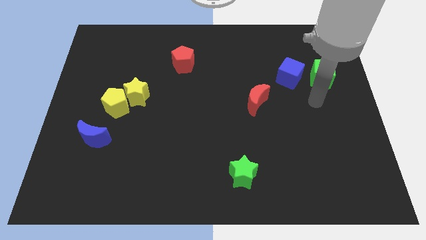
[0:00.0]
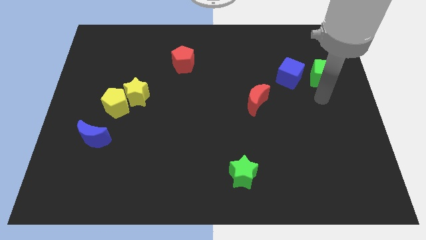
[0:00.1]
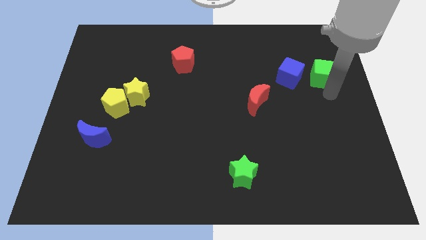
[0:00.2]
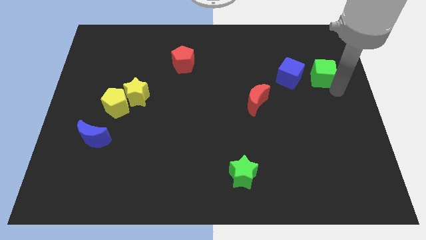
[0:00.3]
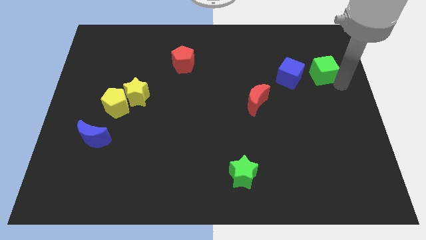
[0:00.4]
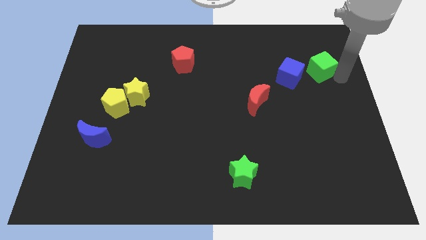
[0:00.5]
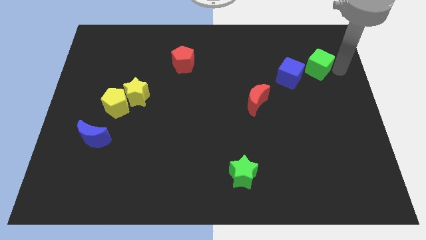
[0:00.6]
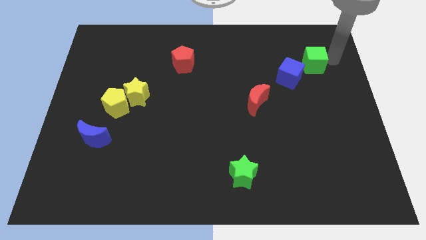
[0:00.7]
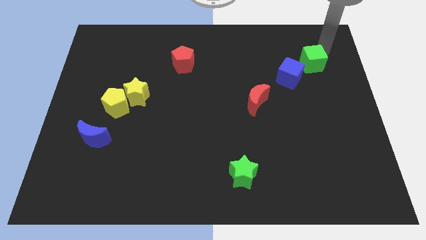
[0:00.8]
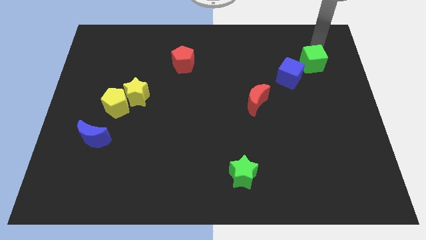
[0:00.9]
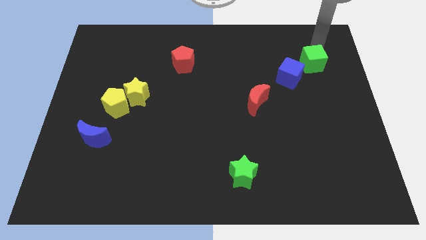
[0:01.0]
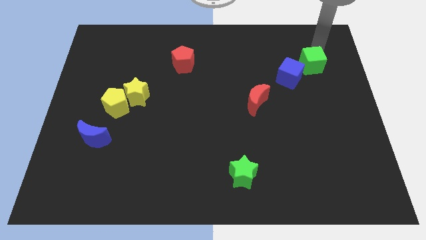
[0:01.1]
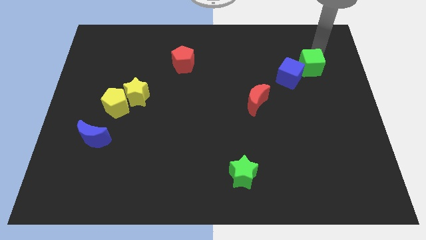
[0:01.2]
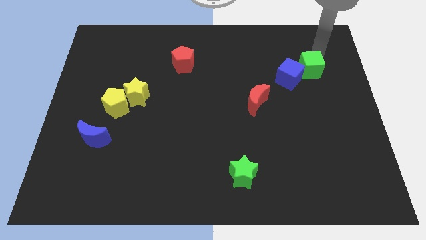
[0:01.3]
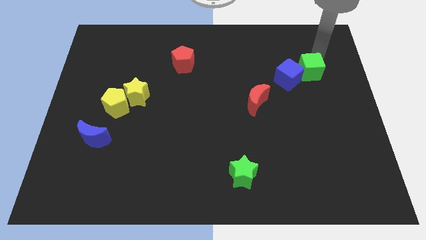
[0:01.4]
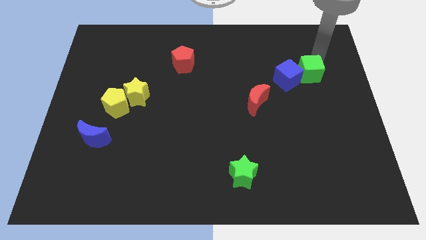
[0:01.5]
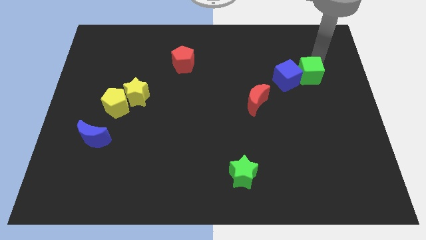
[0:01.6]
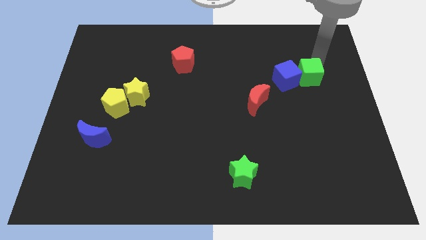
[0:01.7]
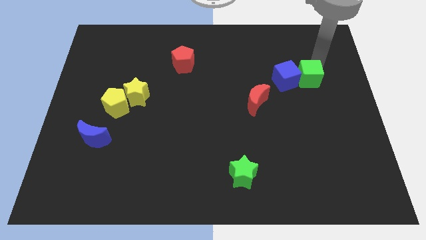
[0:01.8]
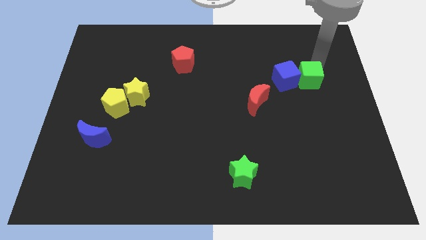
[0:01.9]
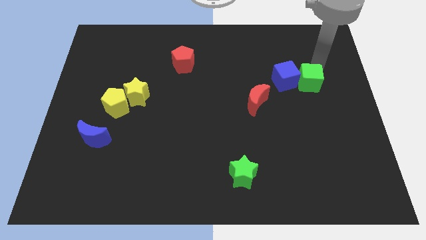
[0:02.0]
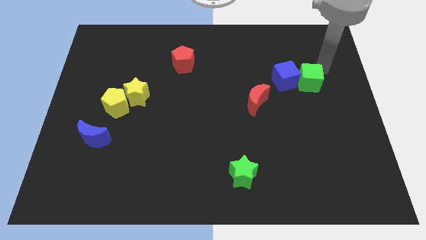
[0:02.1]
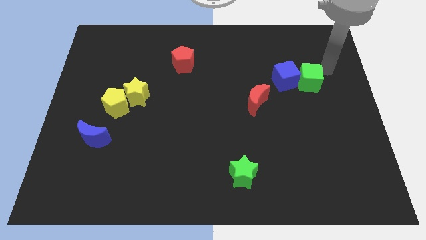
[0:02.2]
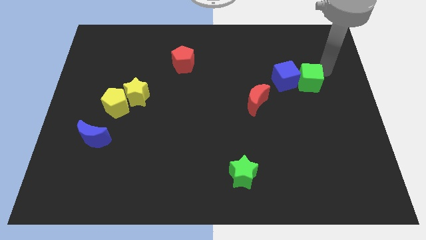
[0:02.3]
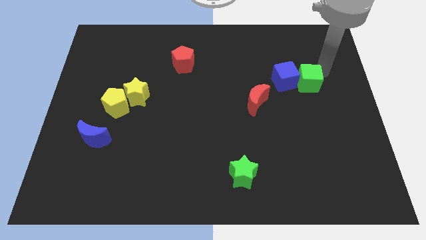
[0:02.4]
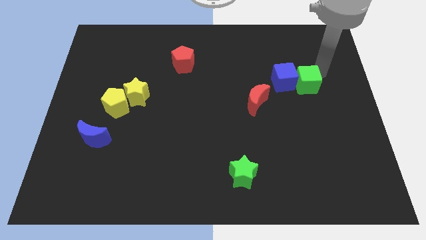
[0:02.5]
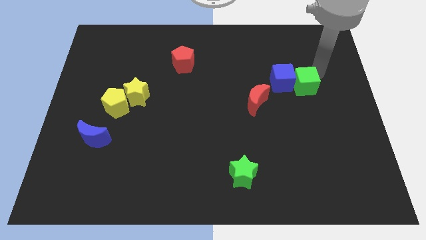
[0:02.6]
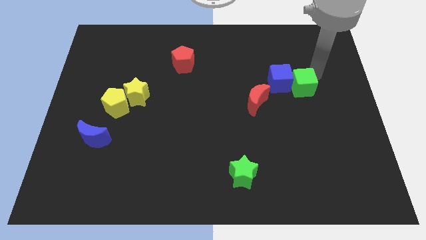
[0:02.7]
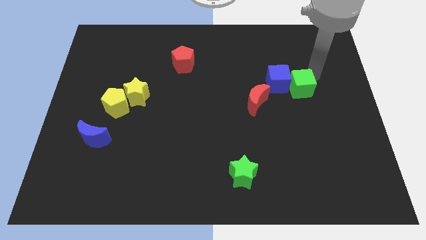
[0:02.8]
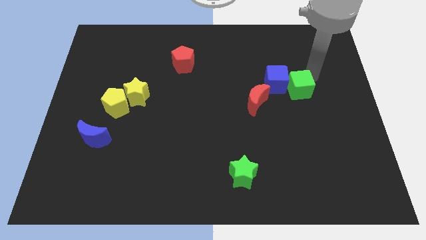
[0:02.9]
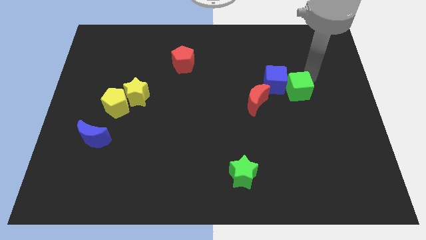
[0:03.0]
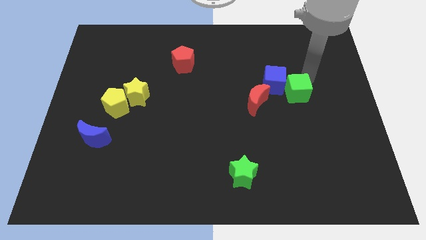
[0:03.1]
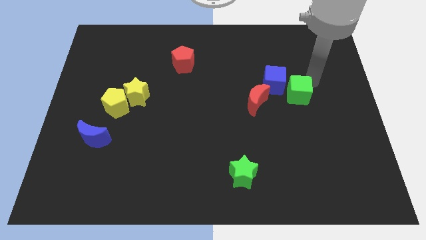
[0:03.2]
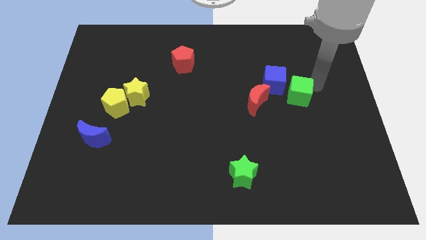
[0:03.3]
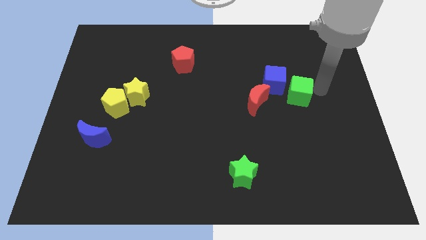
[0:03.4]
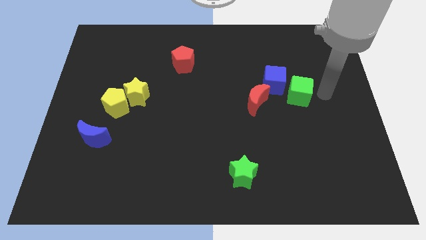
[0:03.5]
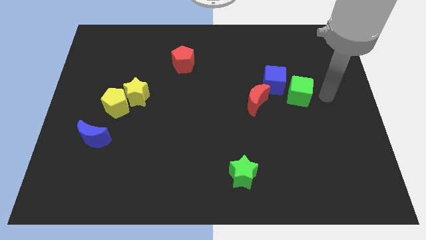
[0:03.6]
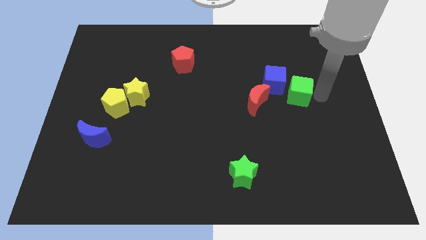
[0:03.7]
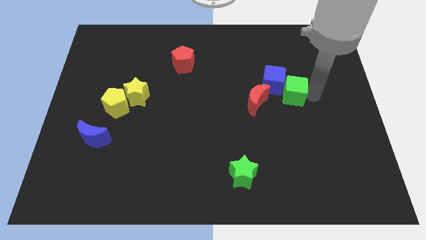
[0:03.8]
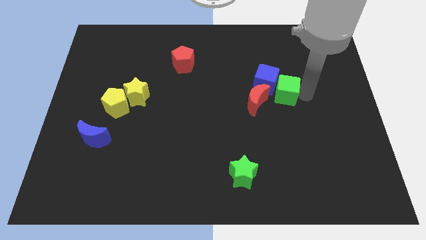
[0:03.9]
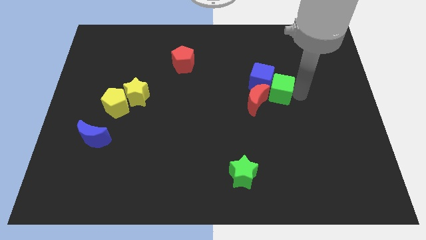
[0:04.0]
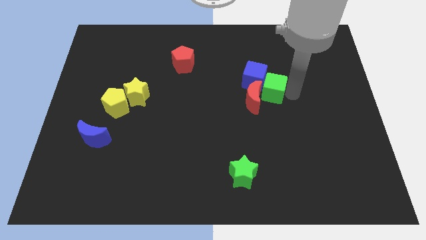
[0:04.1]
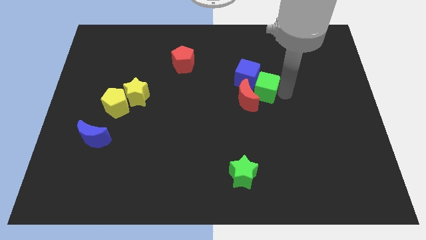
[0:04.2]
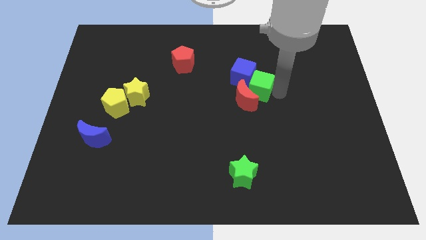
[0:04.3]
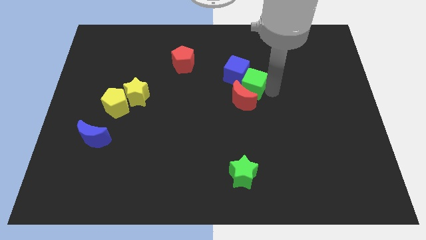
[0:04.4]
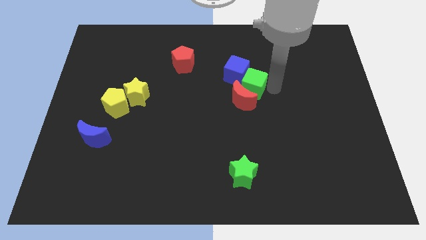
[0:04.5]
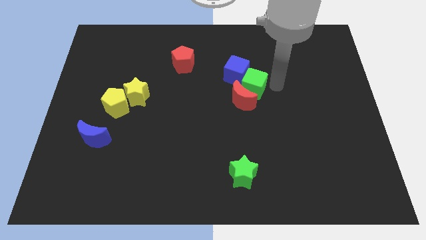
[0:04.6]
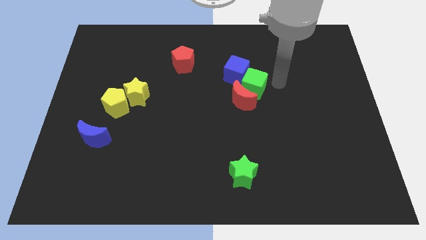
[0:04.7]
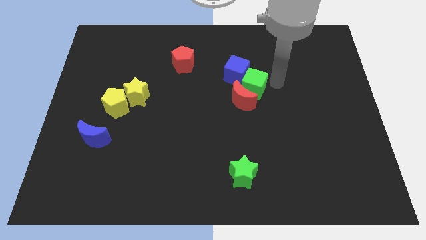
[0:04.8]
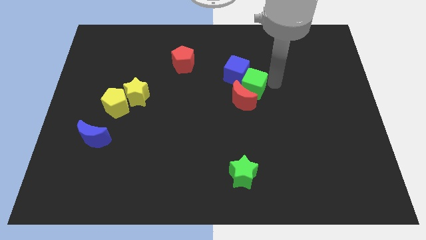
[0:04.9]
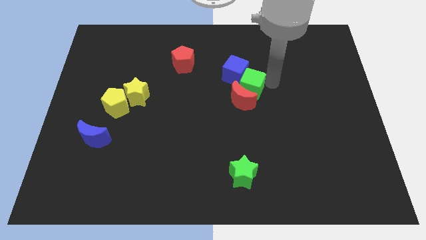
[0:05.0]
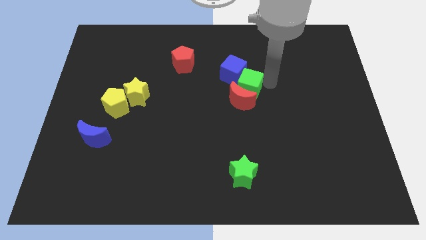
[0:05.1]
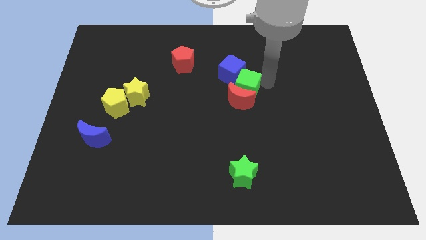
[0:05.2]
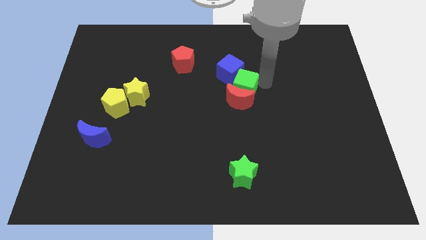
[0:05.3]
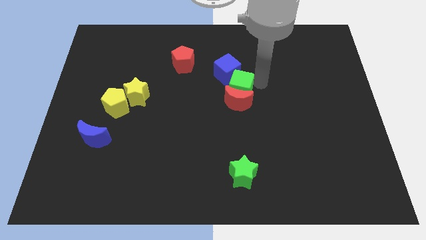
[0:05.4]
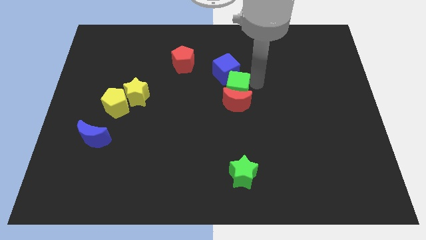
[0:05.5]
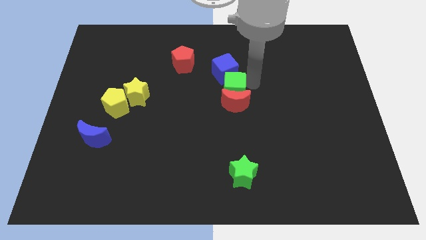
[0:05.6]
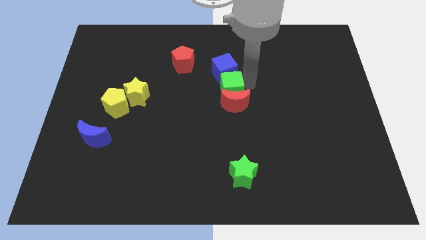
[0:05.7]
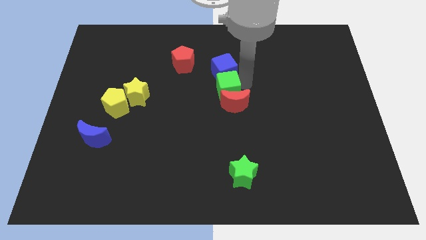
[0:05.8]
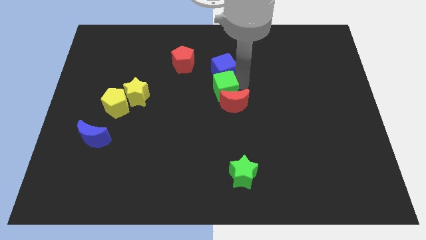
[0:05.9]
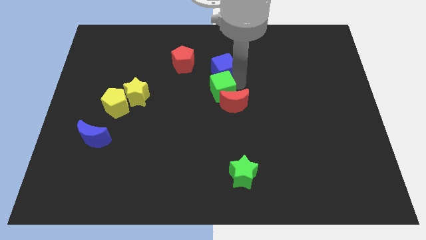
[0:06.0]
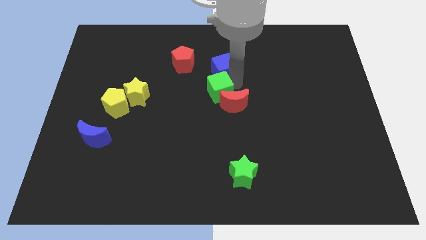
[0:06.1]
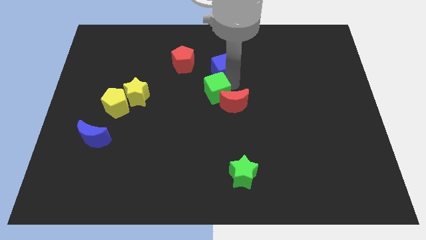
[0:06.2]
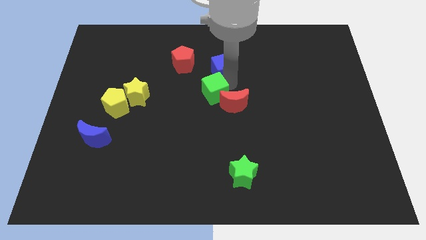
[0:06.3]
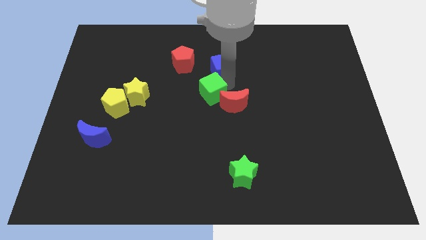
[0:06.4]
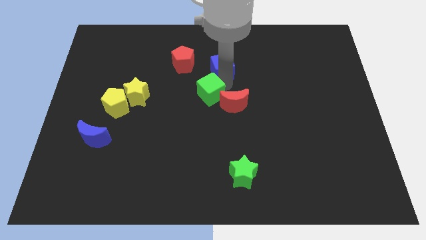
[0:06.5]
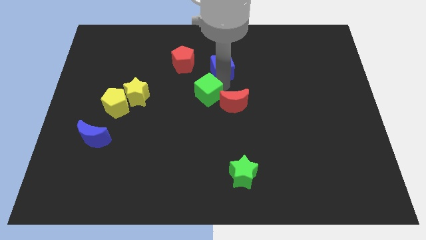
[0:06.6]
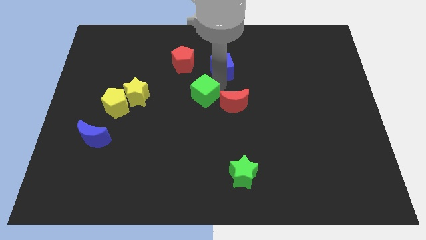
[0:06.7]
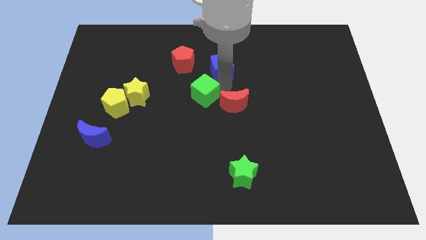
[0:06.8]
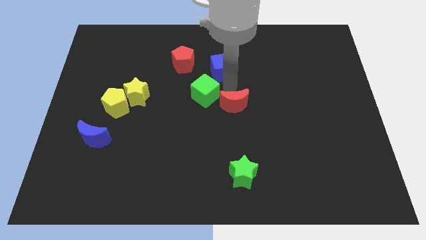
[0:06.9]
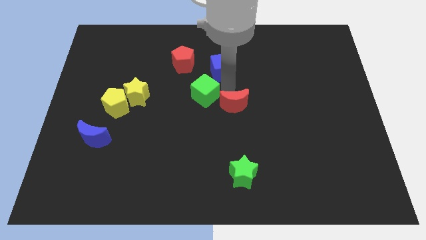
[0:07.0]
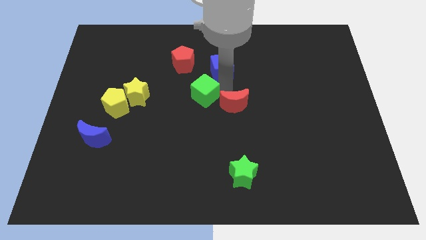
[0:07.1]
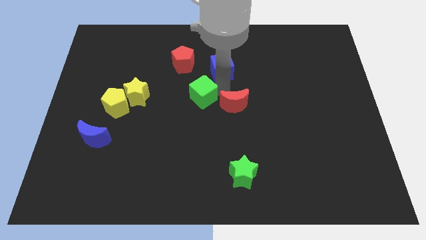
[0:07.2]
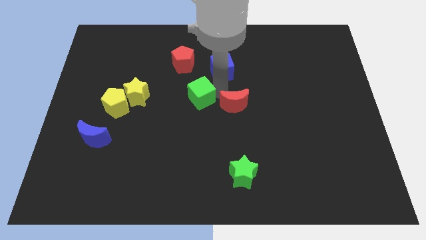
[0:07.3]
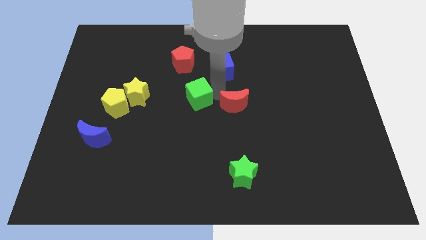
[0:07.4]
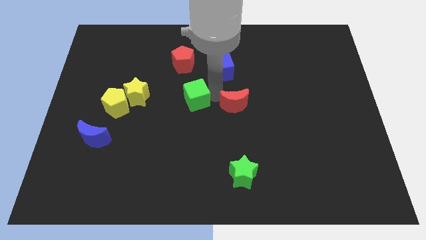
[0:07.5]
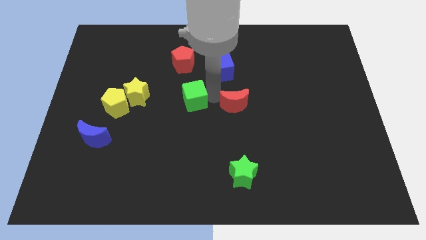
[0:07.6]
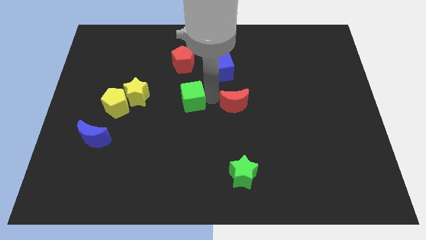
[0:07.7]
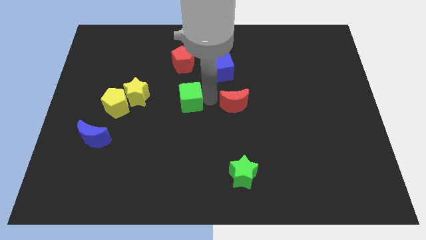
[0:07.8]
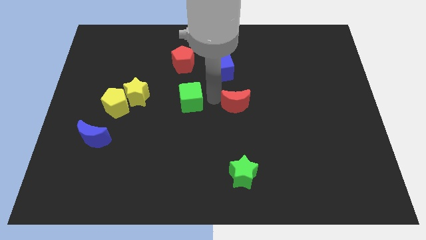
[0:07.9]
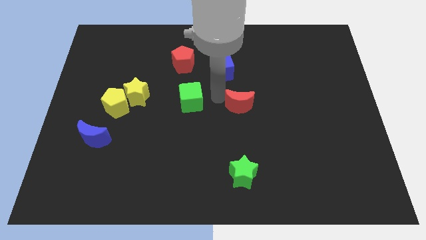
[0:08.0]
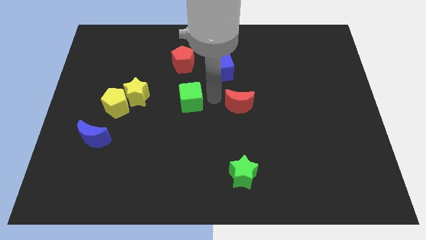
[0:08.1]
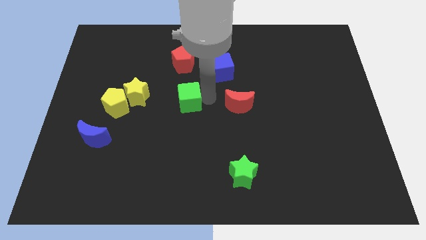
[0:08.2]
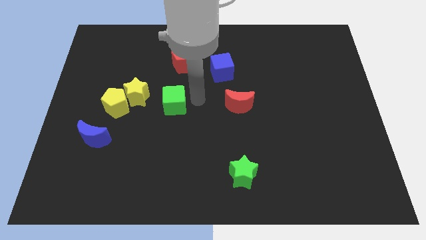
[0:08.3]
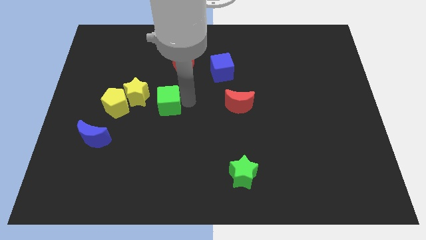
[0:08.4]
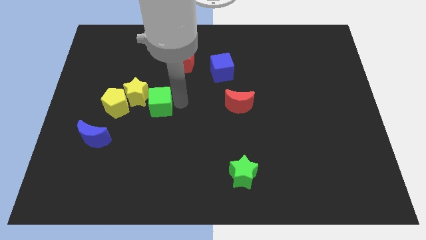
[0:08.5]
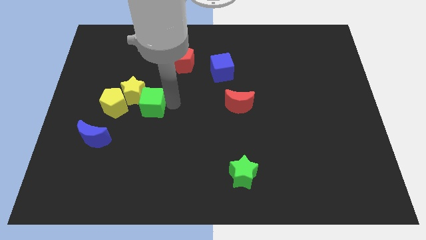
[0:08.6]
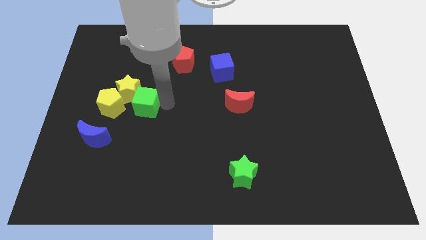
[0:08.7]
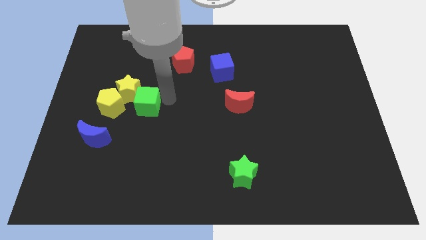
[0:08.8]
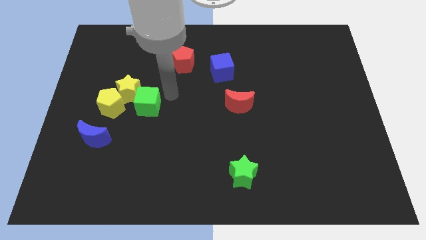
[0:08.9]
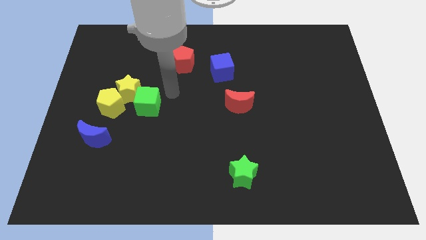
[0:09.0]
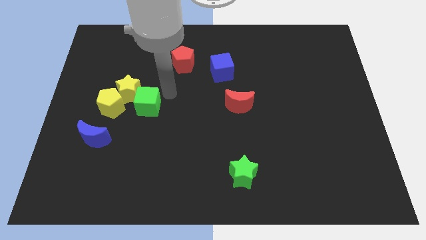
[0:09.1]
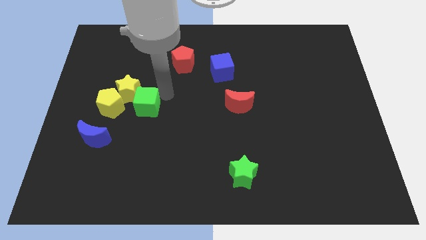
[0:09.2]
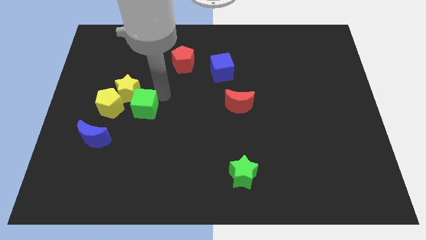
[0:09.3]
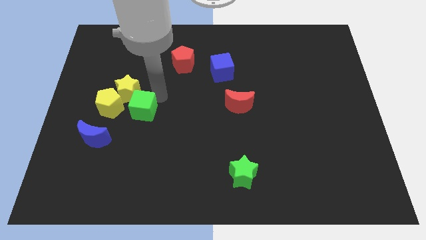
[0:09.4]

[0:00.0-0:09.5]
put the green cube to the top right side of the blue moon
